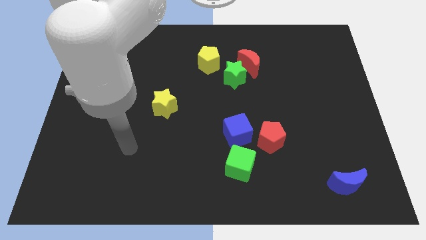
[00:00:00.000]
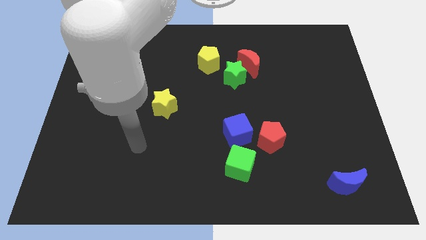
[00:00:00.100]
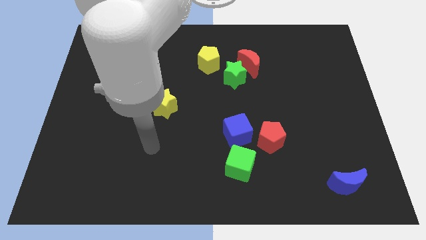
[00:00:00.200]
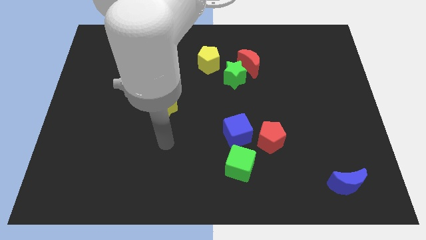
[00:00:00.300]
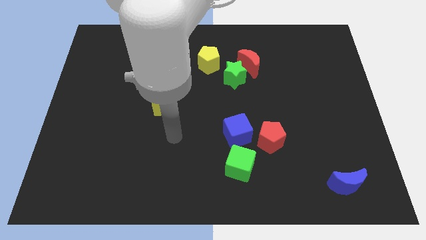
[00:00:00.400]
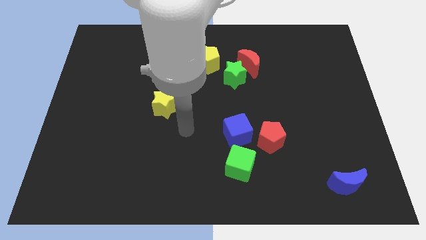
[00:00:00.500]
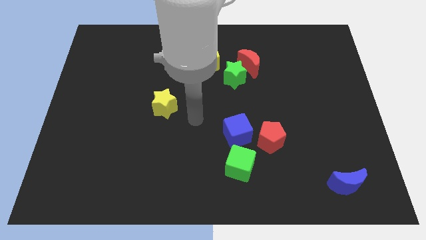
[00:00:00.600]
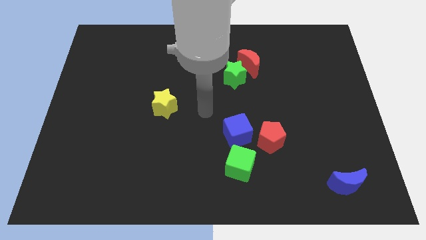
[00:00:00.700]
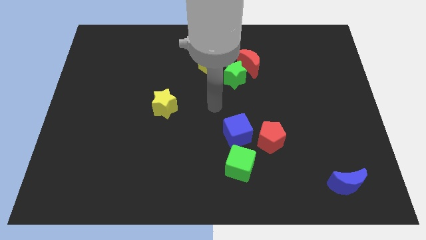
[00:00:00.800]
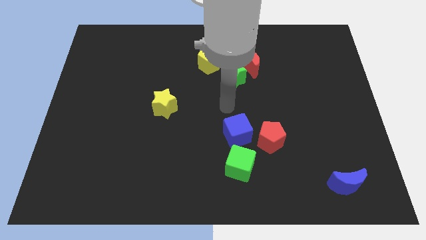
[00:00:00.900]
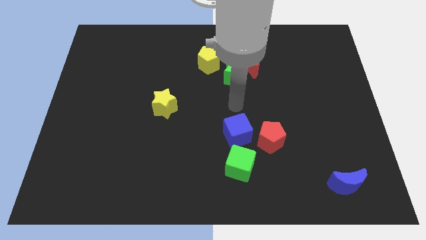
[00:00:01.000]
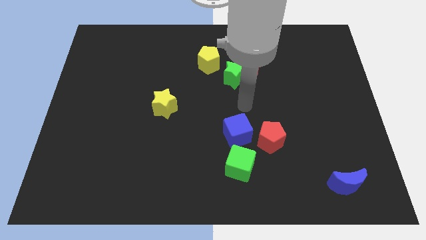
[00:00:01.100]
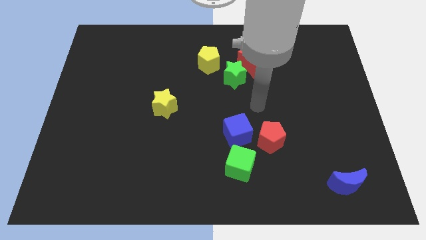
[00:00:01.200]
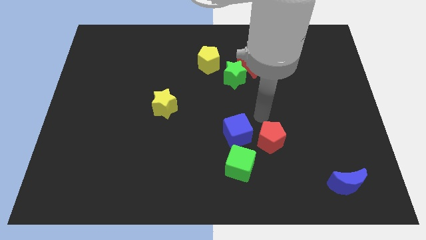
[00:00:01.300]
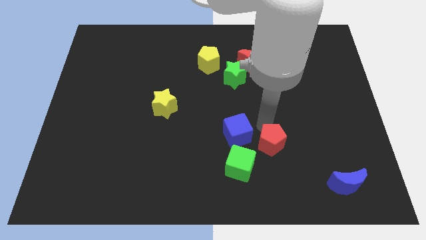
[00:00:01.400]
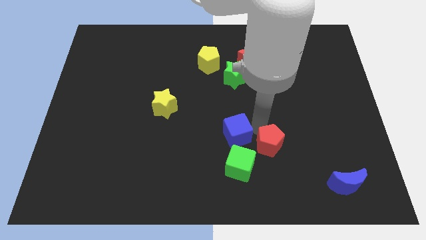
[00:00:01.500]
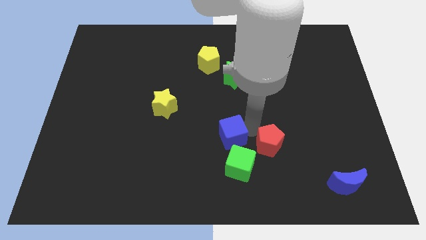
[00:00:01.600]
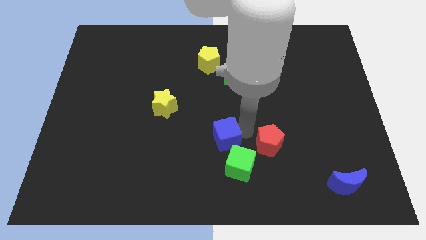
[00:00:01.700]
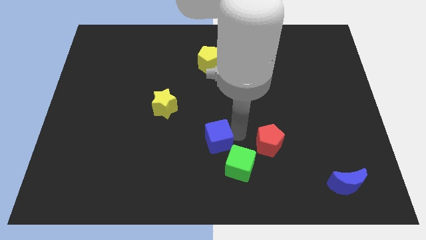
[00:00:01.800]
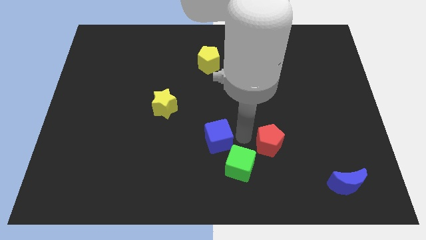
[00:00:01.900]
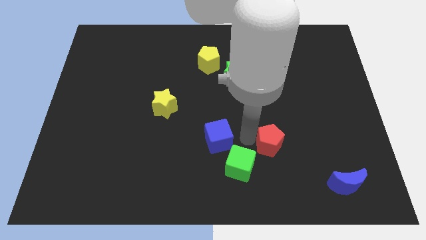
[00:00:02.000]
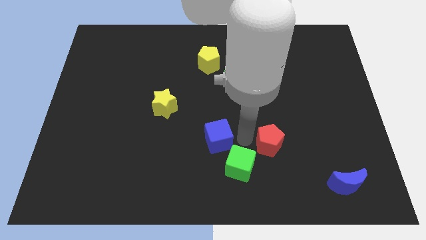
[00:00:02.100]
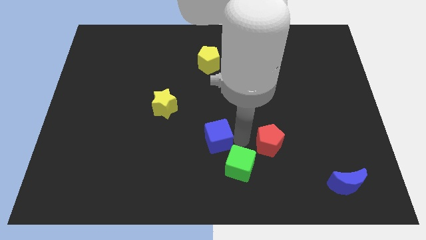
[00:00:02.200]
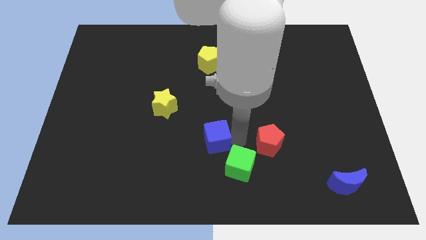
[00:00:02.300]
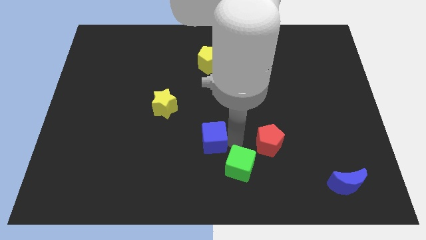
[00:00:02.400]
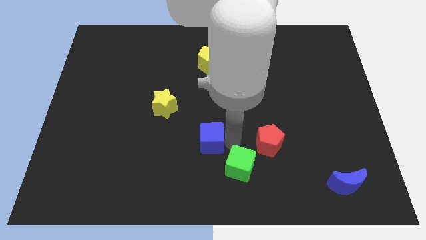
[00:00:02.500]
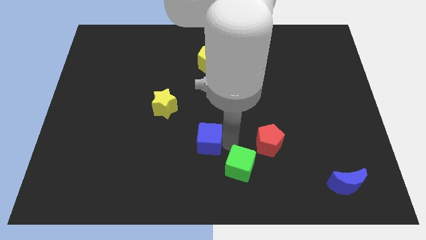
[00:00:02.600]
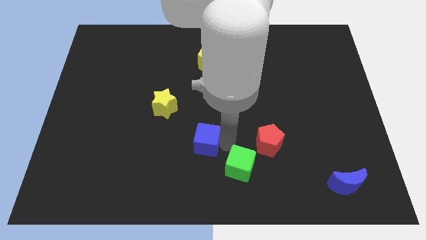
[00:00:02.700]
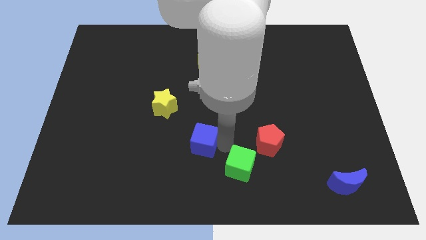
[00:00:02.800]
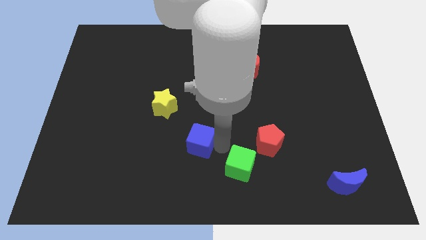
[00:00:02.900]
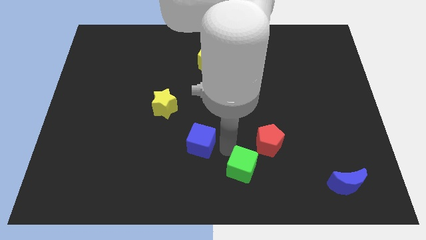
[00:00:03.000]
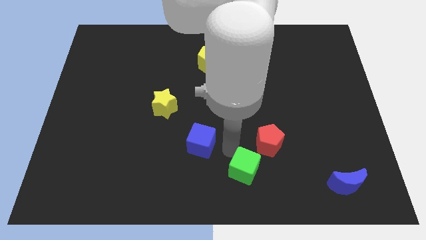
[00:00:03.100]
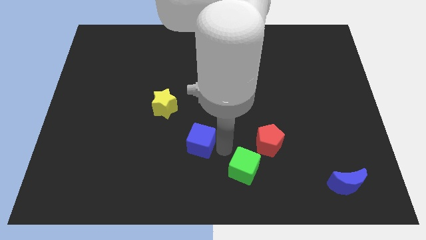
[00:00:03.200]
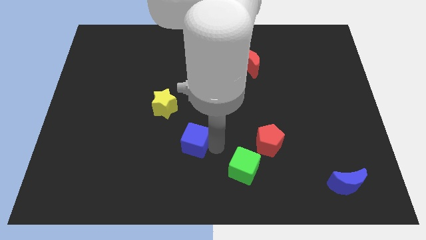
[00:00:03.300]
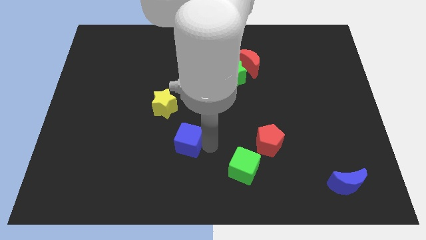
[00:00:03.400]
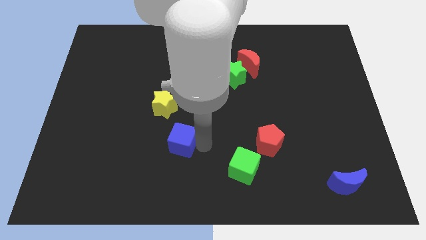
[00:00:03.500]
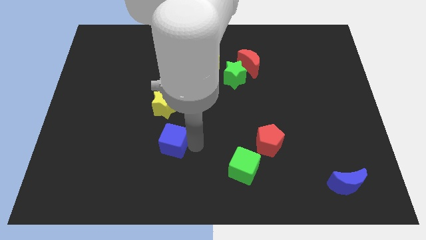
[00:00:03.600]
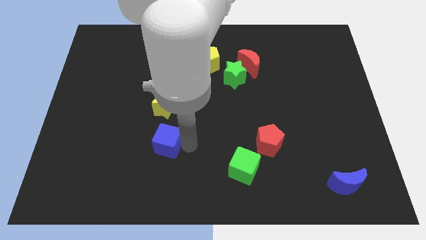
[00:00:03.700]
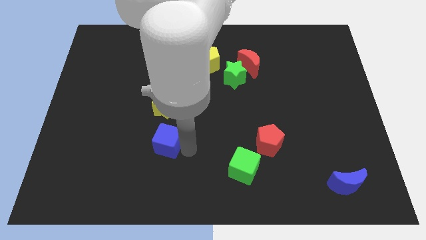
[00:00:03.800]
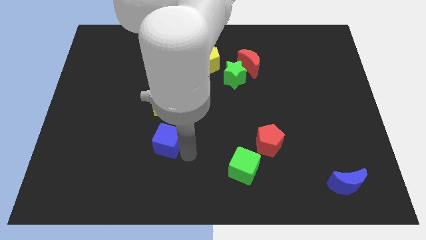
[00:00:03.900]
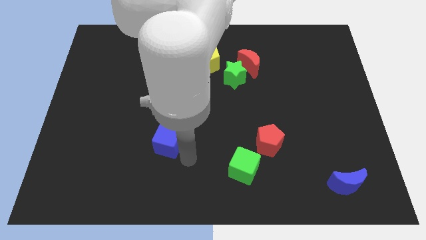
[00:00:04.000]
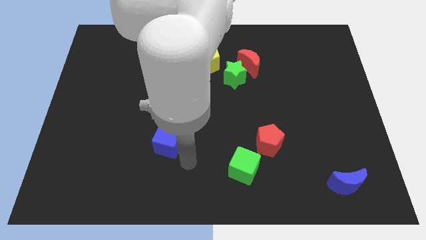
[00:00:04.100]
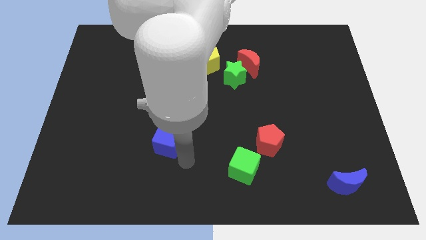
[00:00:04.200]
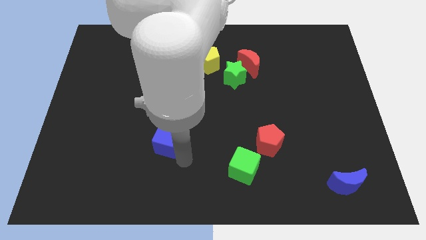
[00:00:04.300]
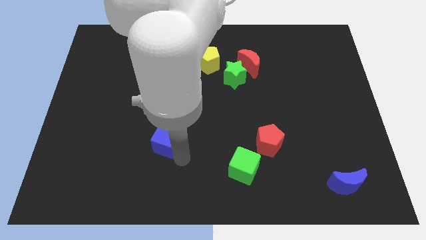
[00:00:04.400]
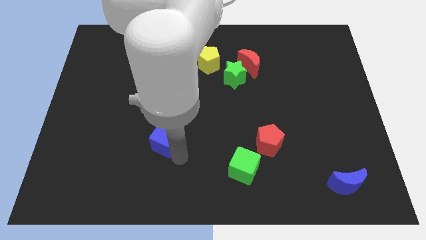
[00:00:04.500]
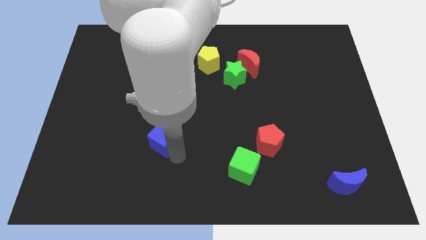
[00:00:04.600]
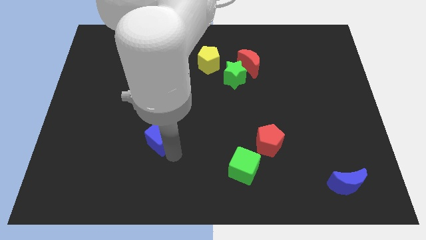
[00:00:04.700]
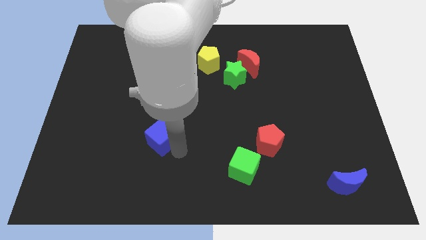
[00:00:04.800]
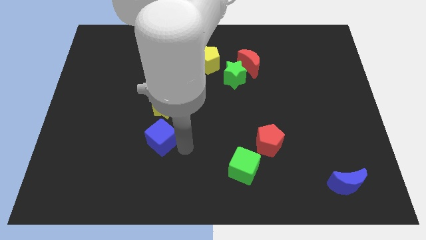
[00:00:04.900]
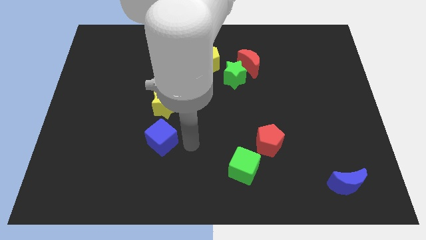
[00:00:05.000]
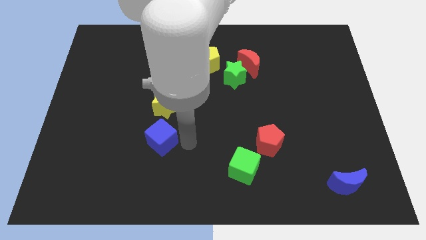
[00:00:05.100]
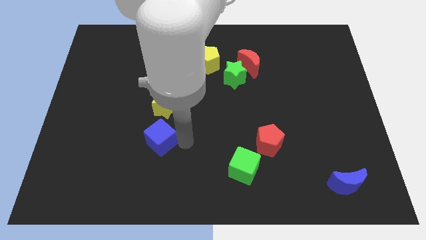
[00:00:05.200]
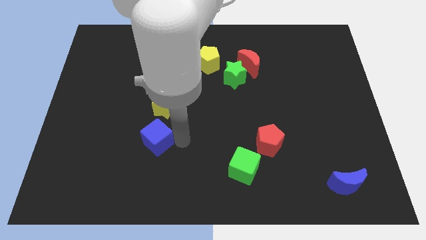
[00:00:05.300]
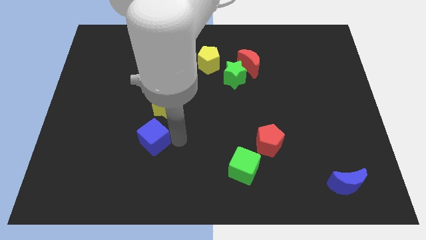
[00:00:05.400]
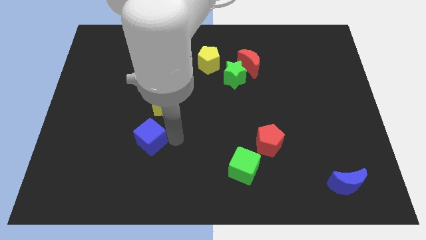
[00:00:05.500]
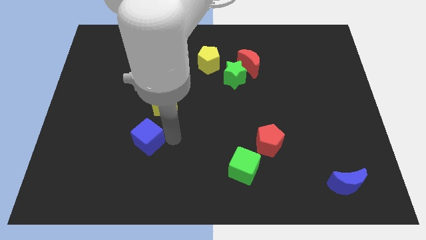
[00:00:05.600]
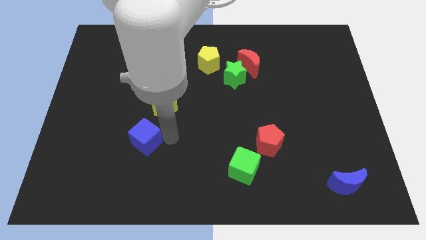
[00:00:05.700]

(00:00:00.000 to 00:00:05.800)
push the blue cube to the left

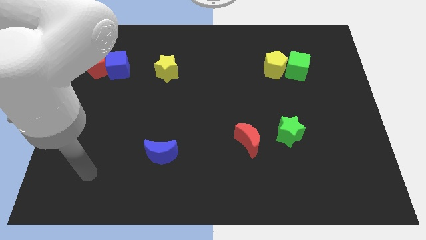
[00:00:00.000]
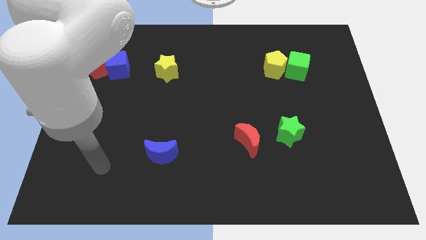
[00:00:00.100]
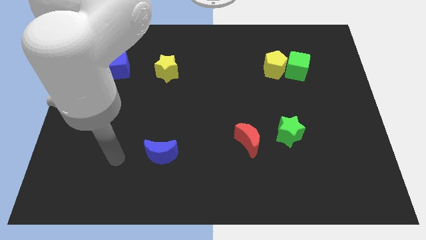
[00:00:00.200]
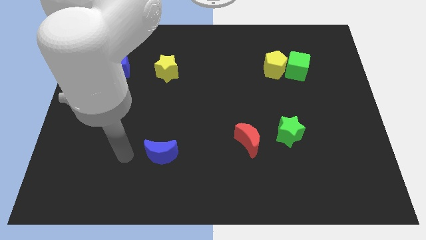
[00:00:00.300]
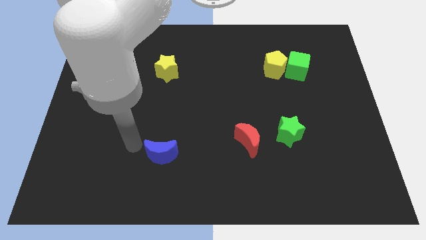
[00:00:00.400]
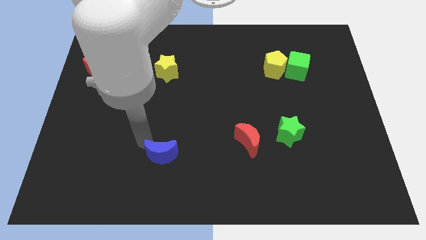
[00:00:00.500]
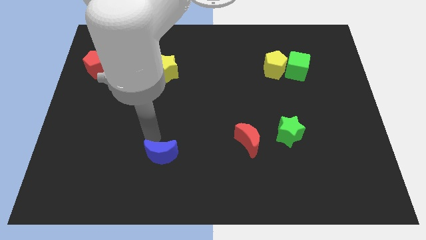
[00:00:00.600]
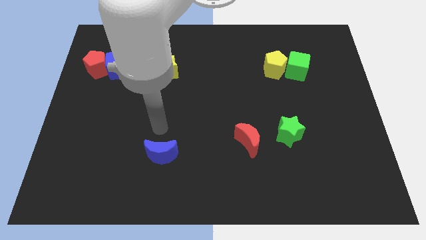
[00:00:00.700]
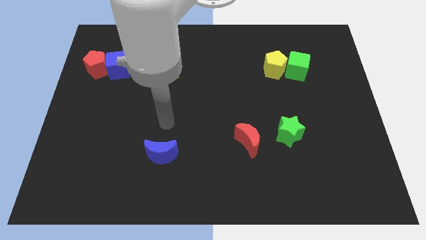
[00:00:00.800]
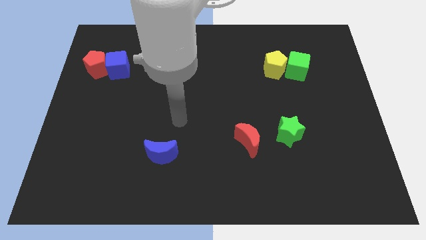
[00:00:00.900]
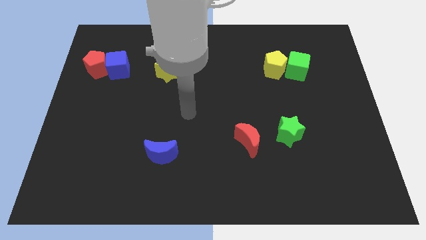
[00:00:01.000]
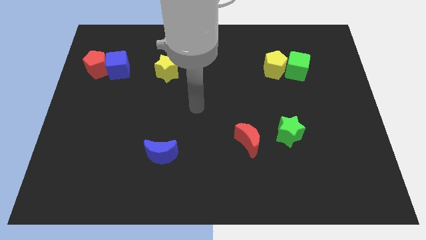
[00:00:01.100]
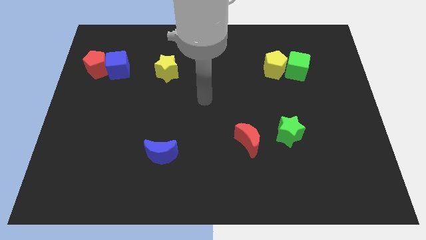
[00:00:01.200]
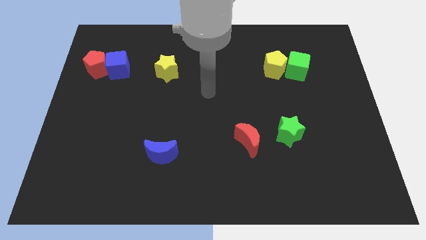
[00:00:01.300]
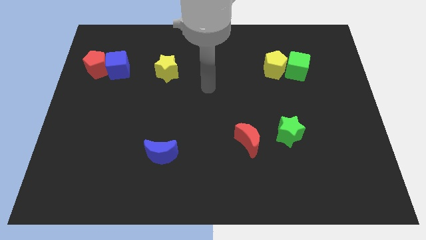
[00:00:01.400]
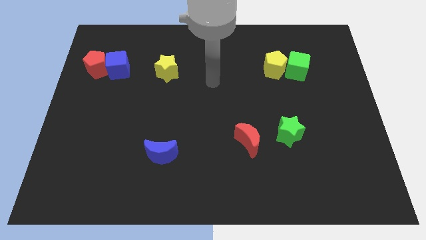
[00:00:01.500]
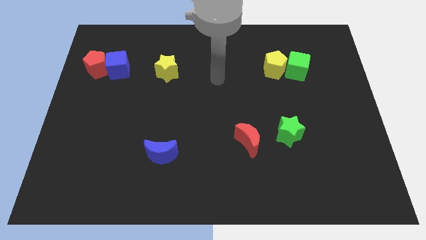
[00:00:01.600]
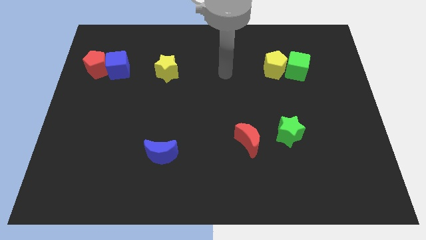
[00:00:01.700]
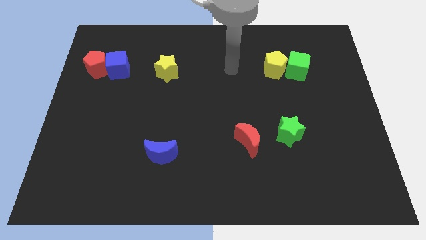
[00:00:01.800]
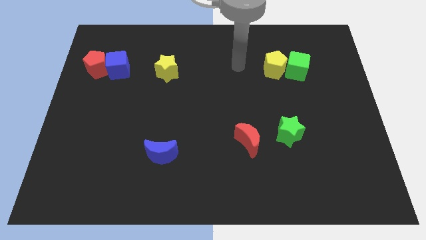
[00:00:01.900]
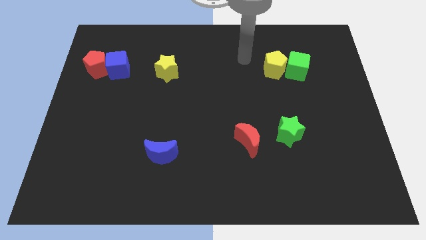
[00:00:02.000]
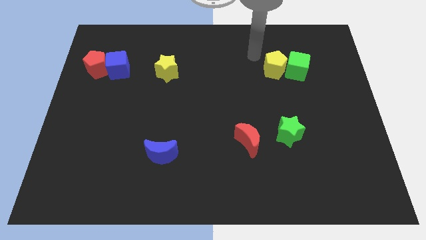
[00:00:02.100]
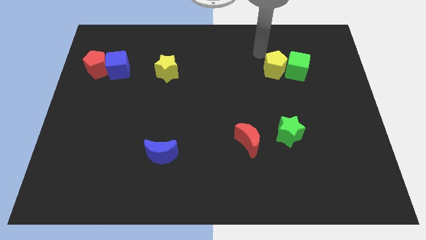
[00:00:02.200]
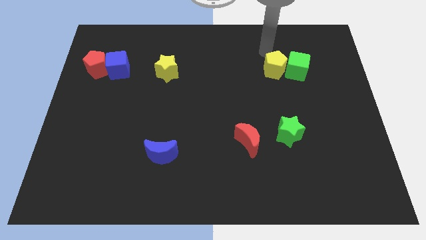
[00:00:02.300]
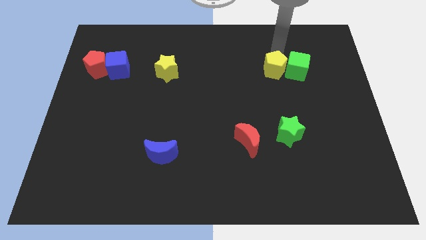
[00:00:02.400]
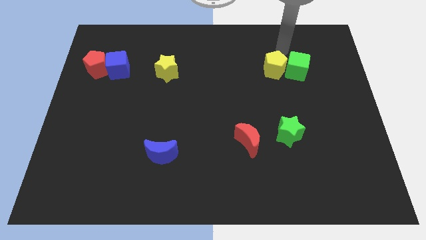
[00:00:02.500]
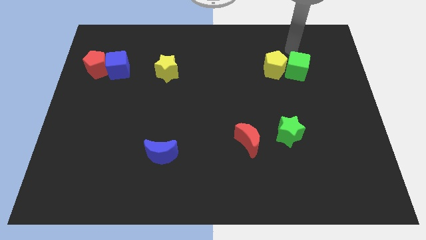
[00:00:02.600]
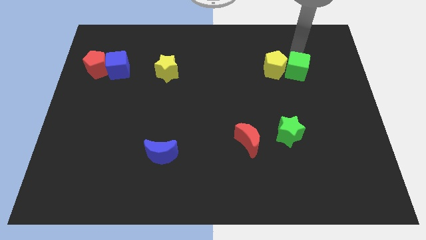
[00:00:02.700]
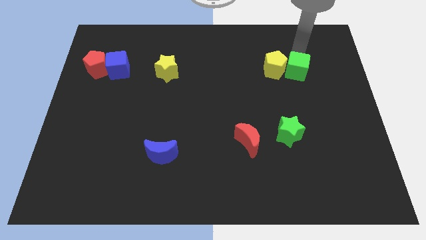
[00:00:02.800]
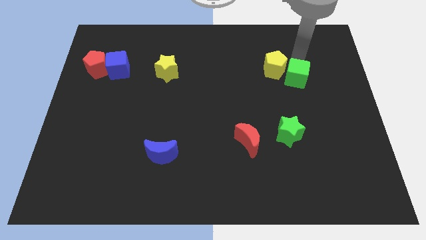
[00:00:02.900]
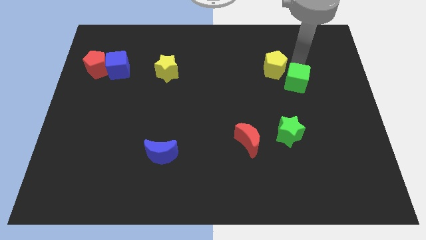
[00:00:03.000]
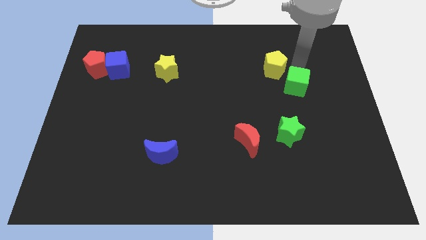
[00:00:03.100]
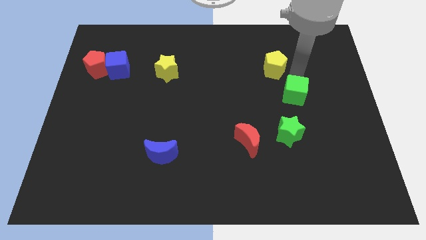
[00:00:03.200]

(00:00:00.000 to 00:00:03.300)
move the green cube a little downwards
